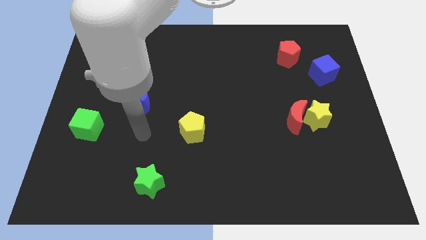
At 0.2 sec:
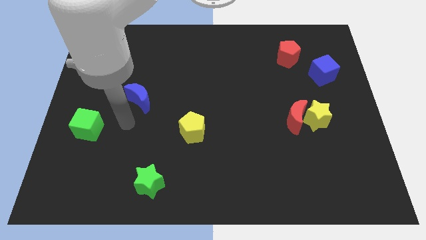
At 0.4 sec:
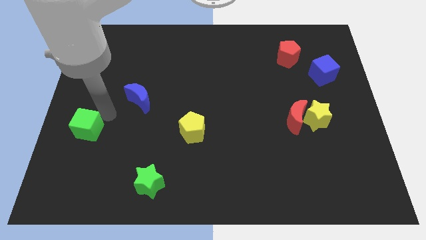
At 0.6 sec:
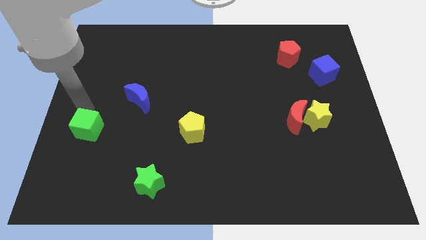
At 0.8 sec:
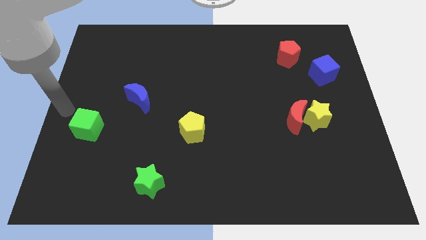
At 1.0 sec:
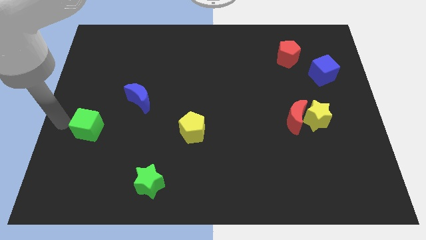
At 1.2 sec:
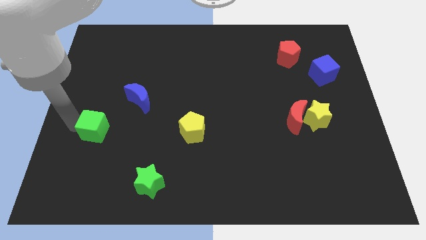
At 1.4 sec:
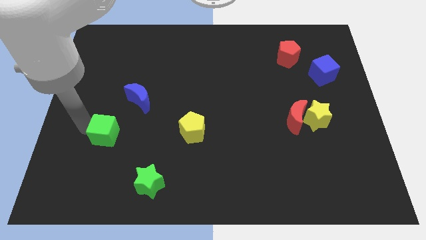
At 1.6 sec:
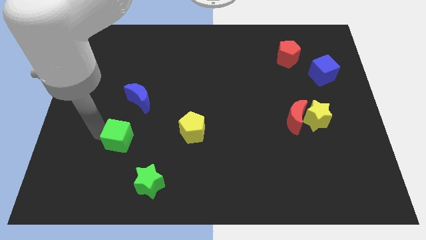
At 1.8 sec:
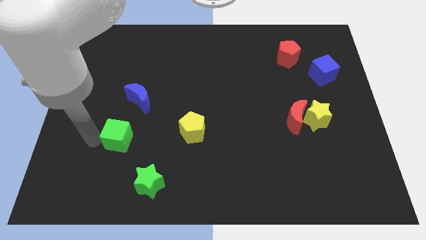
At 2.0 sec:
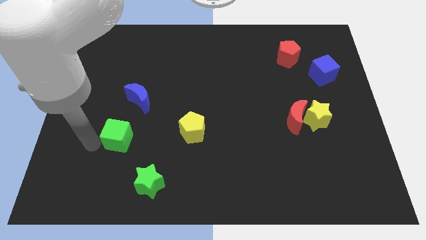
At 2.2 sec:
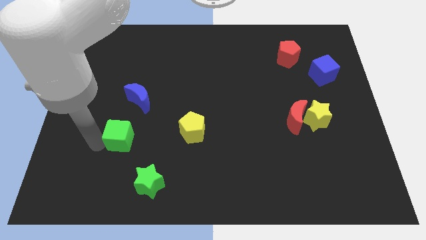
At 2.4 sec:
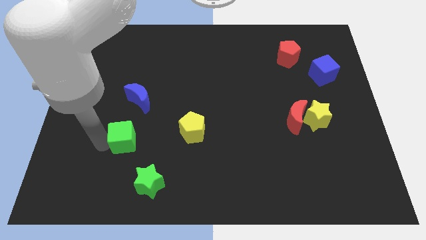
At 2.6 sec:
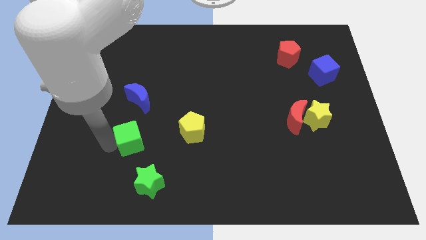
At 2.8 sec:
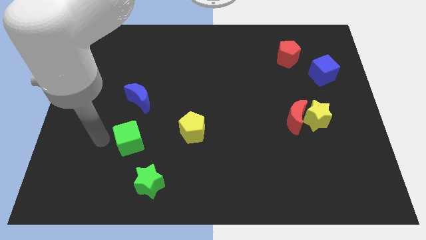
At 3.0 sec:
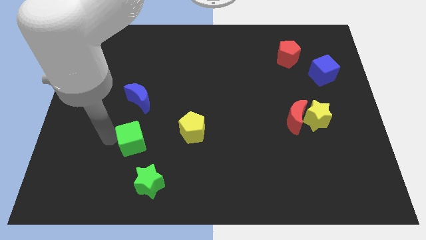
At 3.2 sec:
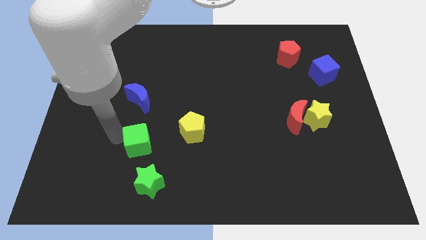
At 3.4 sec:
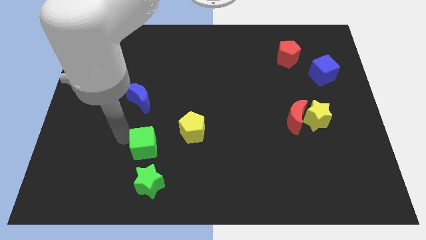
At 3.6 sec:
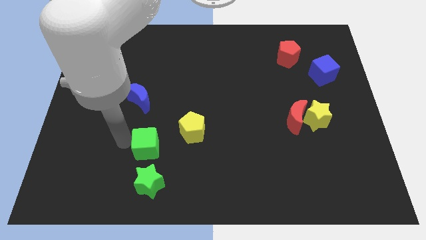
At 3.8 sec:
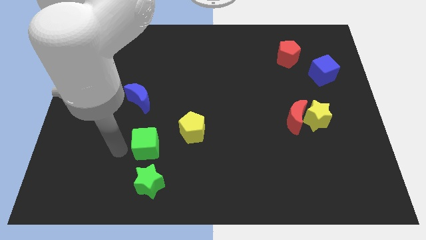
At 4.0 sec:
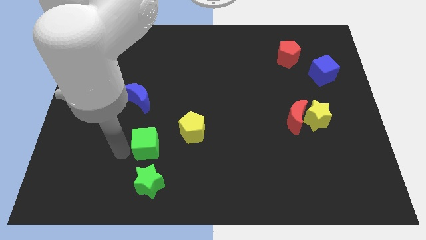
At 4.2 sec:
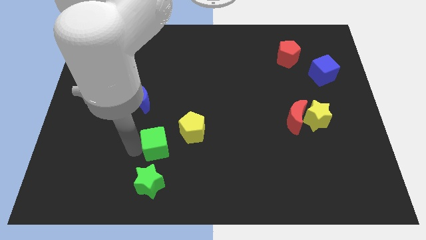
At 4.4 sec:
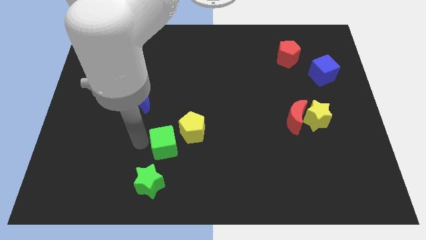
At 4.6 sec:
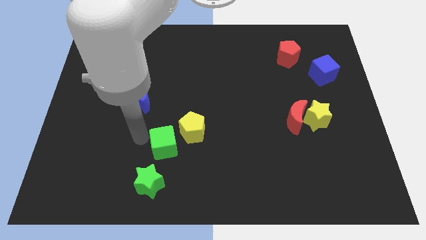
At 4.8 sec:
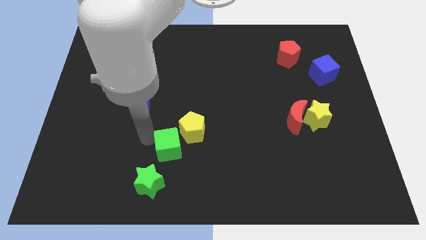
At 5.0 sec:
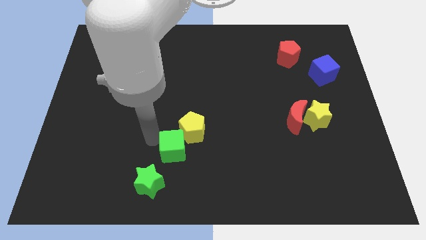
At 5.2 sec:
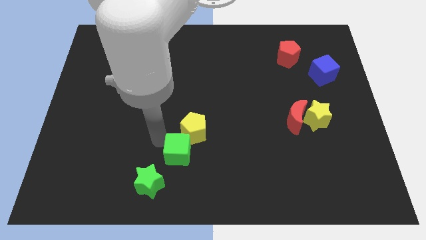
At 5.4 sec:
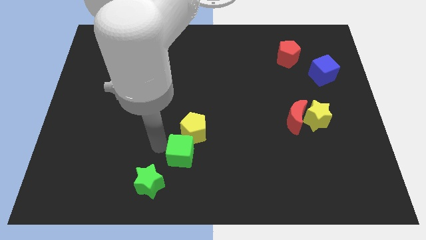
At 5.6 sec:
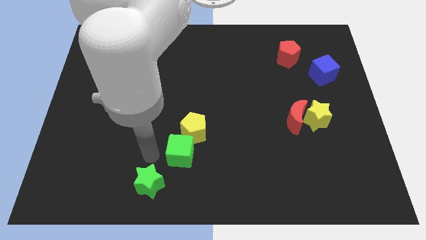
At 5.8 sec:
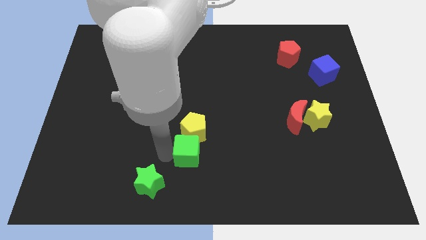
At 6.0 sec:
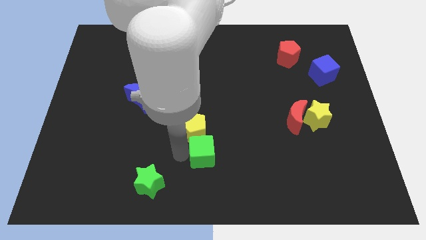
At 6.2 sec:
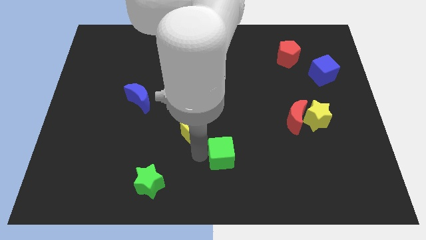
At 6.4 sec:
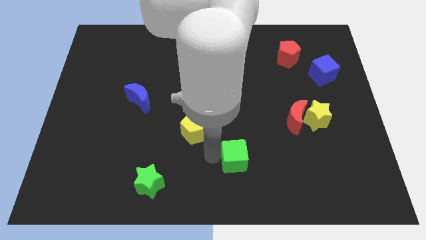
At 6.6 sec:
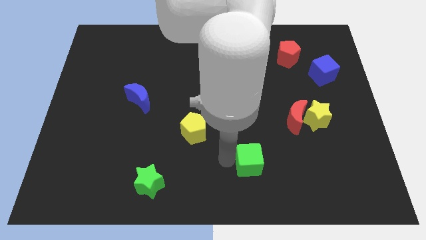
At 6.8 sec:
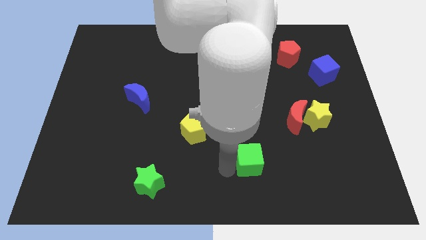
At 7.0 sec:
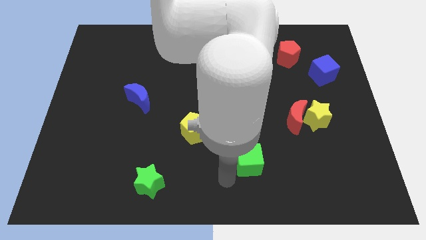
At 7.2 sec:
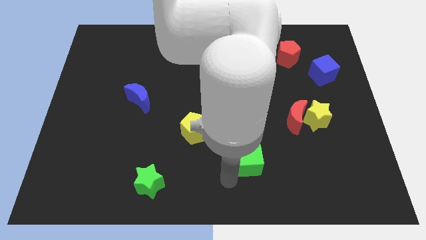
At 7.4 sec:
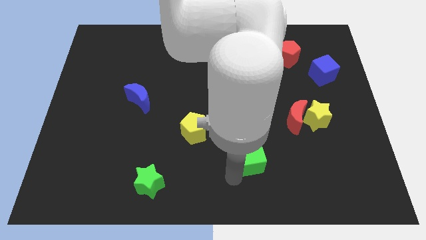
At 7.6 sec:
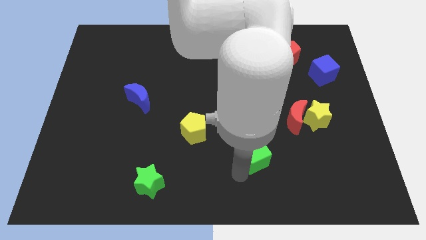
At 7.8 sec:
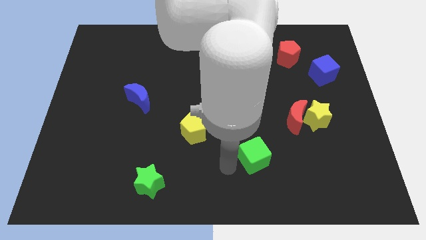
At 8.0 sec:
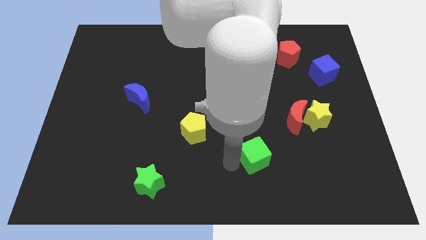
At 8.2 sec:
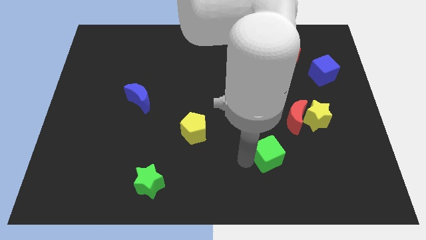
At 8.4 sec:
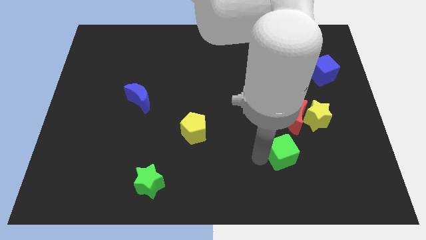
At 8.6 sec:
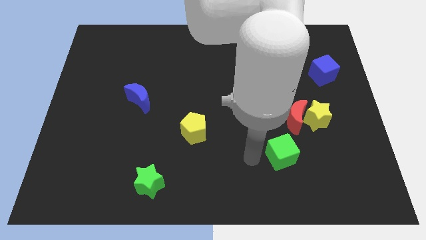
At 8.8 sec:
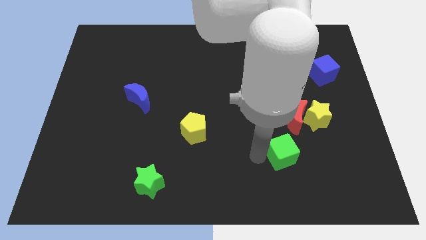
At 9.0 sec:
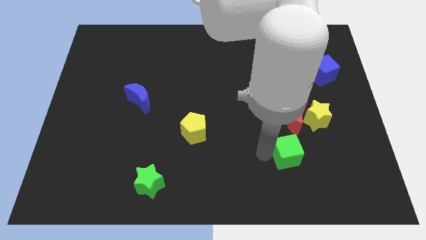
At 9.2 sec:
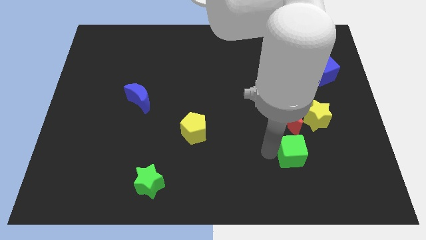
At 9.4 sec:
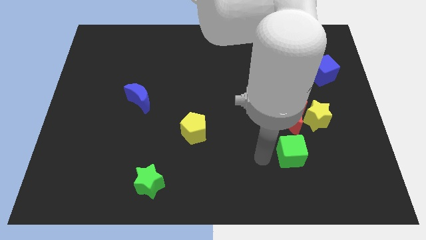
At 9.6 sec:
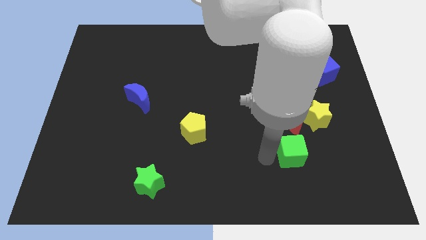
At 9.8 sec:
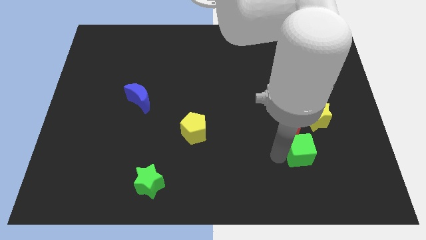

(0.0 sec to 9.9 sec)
slide the green cube to the bottom of the yellow star

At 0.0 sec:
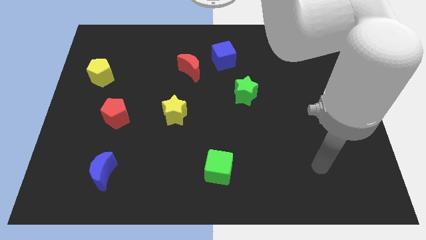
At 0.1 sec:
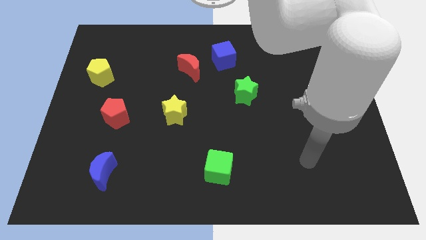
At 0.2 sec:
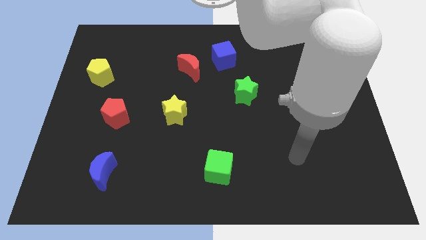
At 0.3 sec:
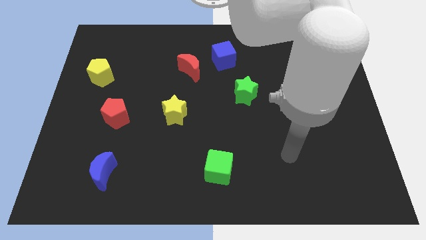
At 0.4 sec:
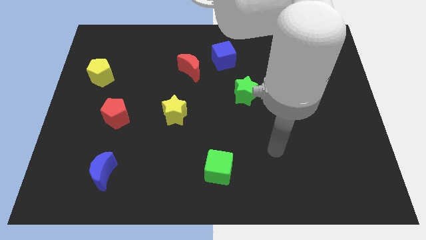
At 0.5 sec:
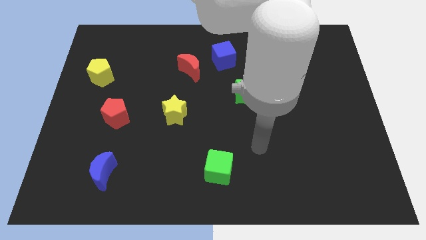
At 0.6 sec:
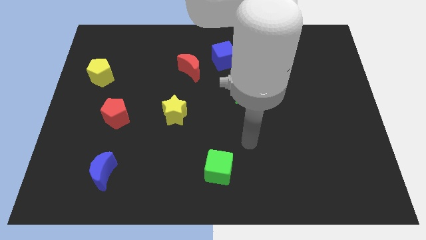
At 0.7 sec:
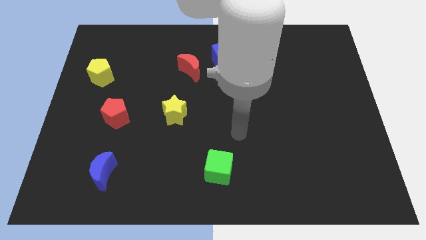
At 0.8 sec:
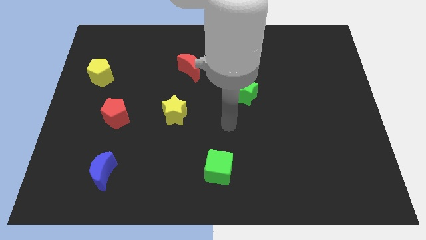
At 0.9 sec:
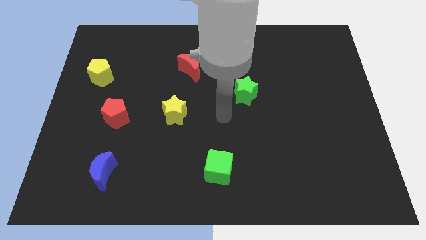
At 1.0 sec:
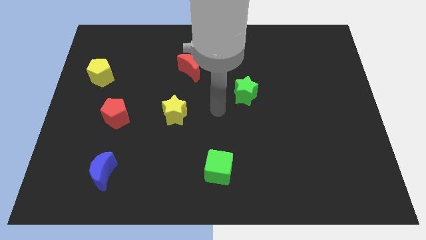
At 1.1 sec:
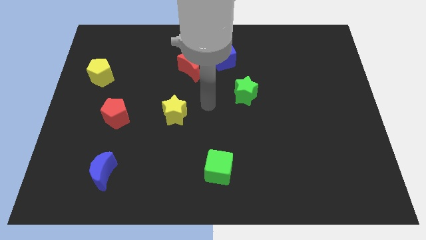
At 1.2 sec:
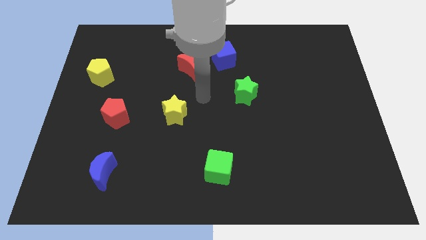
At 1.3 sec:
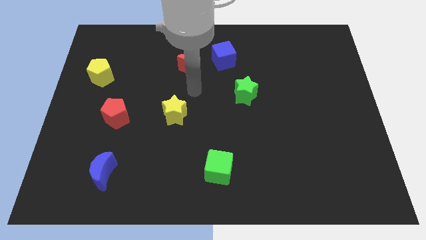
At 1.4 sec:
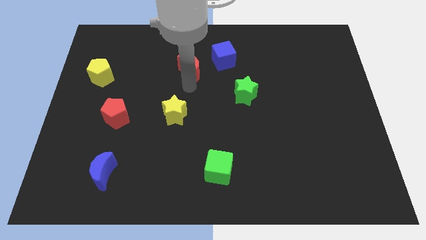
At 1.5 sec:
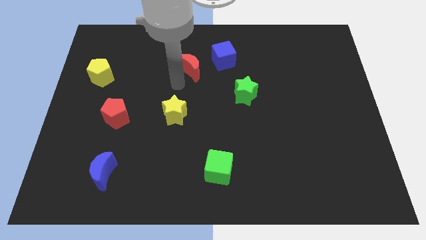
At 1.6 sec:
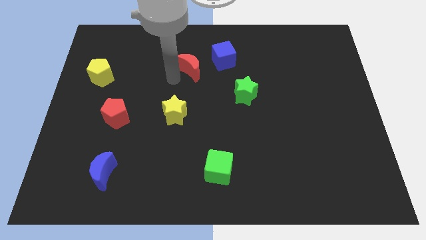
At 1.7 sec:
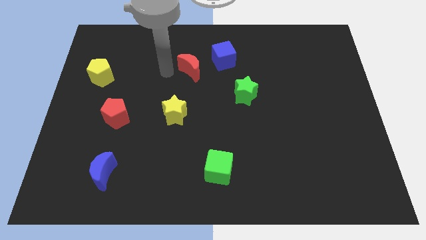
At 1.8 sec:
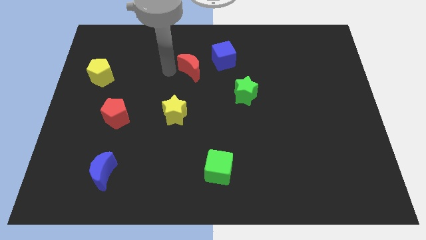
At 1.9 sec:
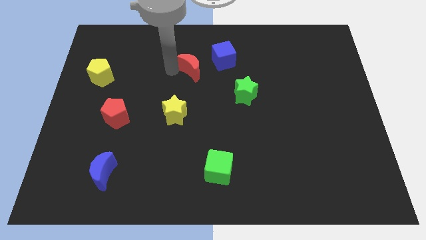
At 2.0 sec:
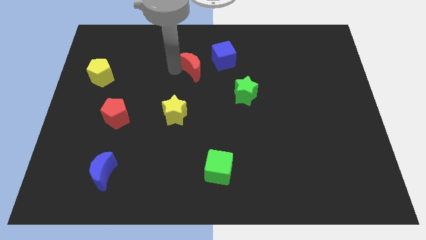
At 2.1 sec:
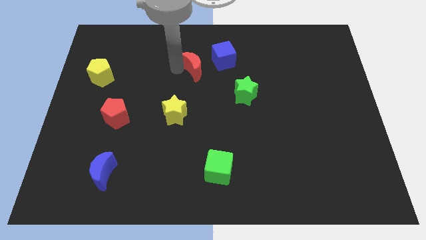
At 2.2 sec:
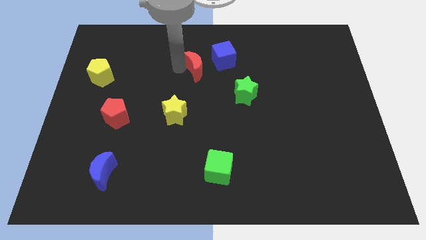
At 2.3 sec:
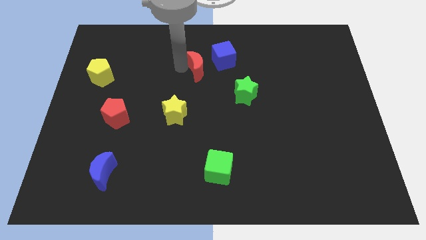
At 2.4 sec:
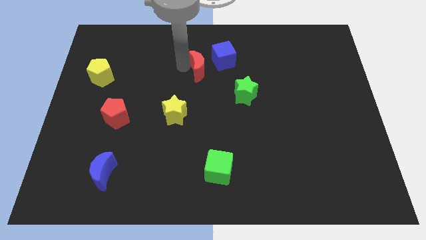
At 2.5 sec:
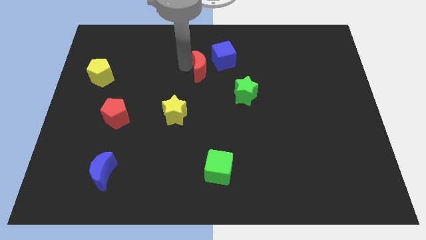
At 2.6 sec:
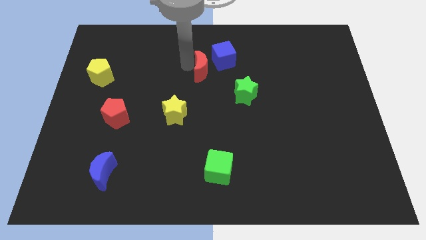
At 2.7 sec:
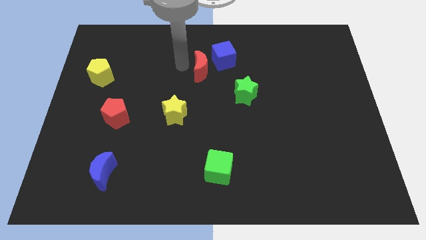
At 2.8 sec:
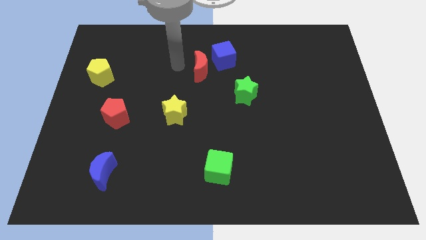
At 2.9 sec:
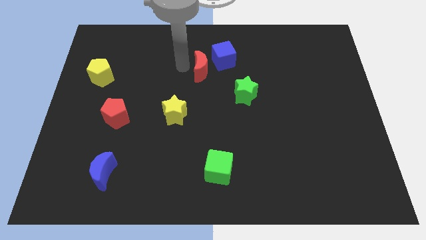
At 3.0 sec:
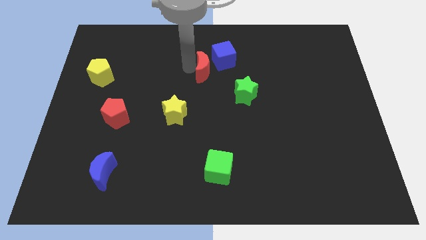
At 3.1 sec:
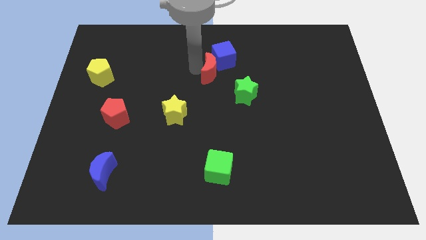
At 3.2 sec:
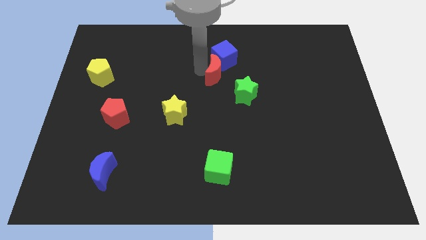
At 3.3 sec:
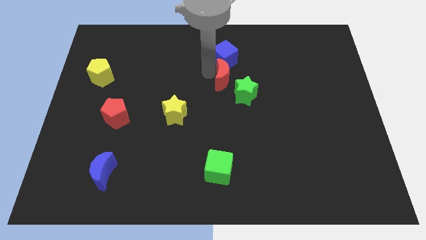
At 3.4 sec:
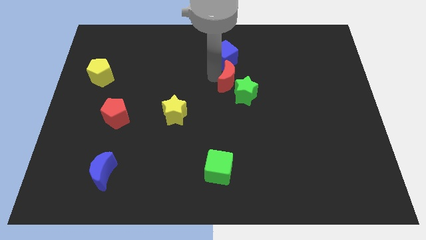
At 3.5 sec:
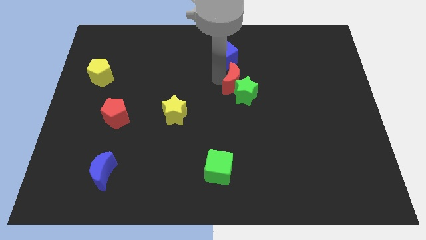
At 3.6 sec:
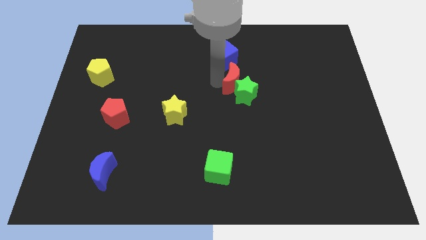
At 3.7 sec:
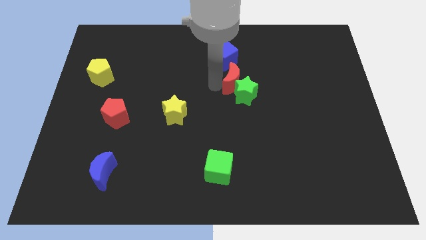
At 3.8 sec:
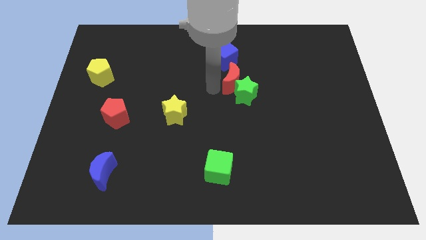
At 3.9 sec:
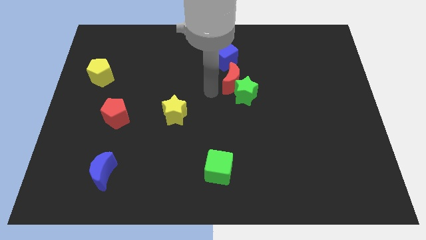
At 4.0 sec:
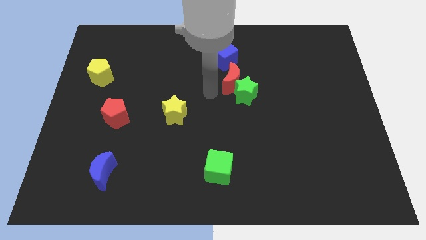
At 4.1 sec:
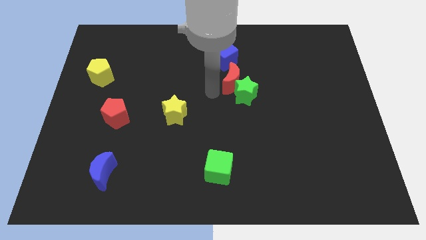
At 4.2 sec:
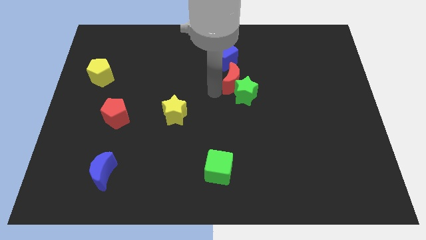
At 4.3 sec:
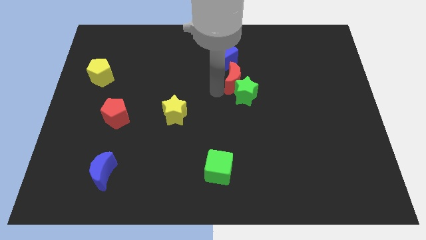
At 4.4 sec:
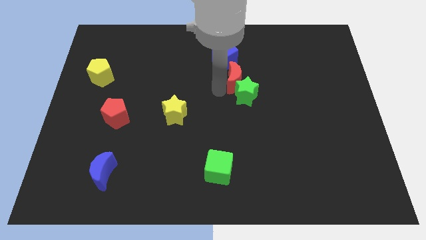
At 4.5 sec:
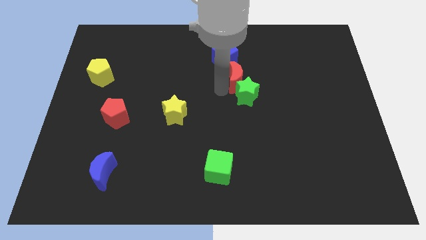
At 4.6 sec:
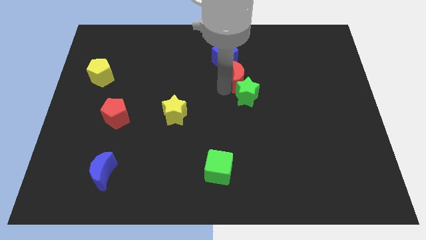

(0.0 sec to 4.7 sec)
put the red moon to the top right side of the green star
